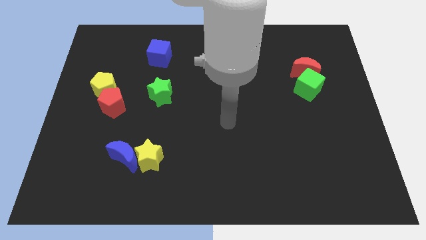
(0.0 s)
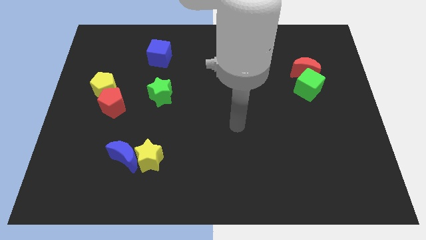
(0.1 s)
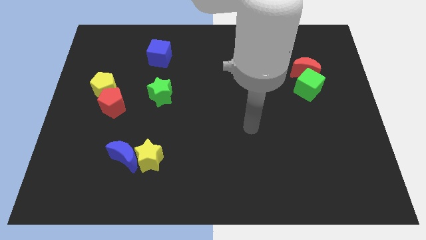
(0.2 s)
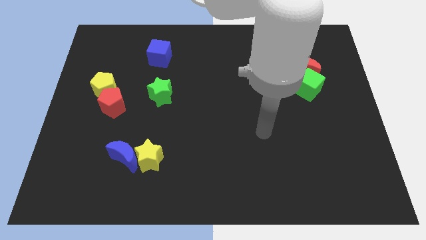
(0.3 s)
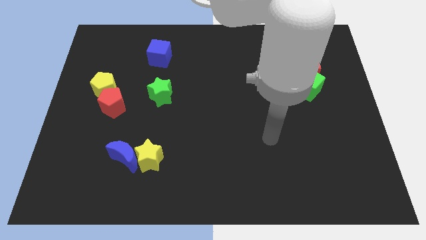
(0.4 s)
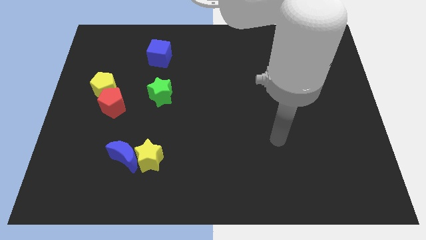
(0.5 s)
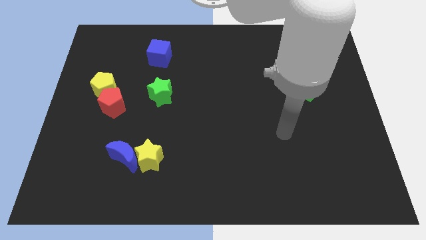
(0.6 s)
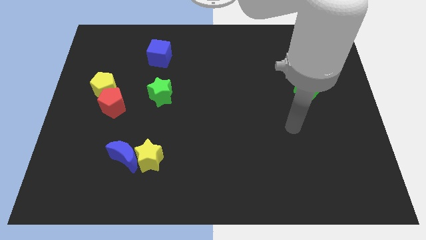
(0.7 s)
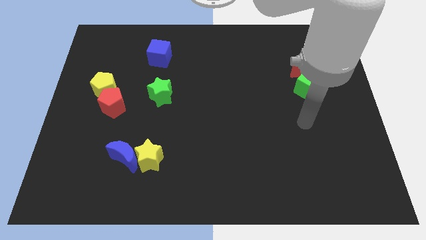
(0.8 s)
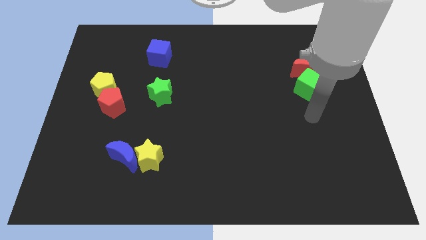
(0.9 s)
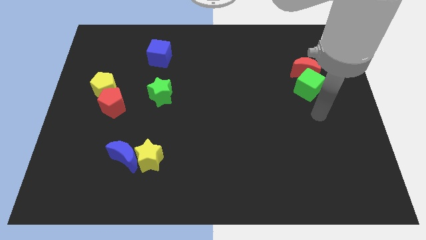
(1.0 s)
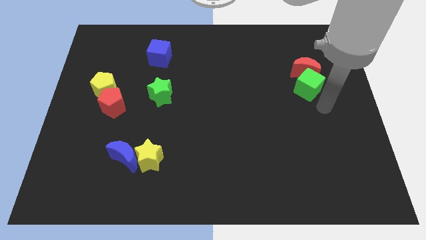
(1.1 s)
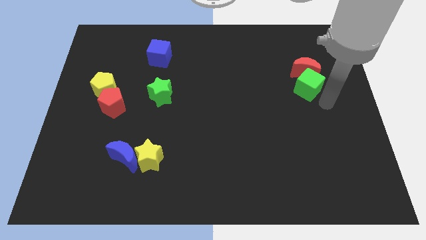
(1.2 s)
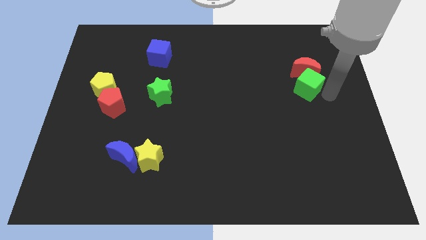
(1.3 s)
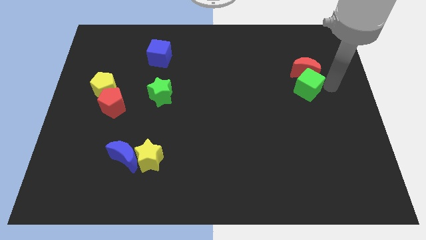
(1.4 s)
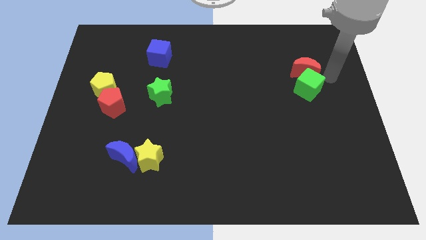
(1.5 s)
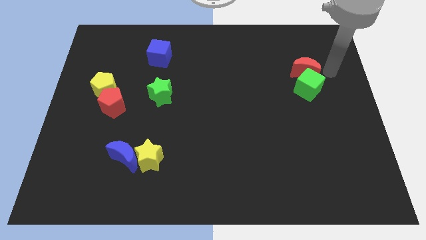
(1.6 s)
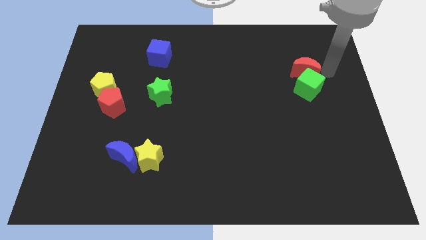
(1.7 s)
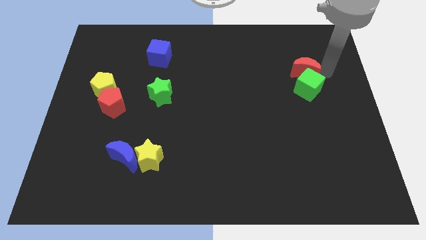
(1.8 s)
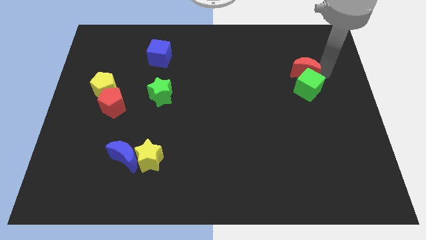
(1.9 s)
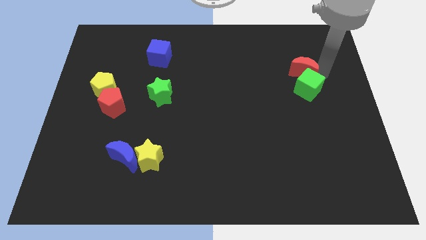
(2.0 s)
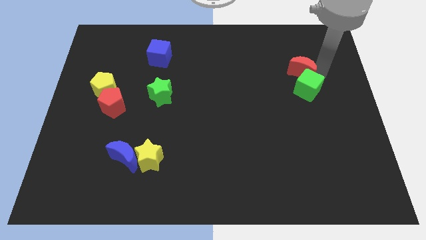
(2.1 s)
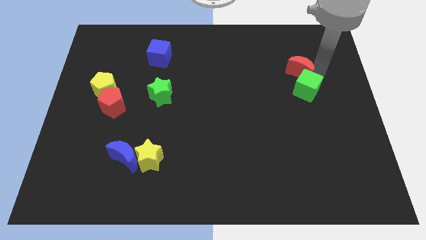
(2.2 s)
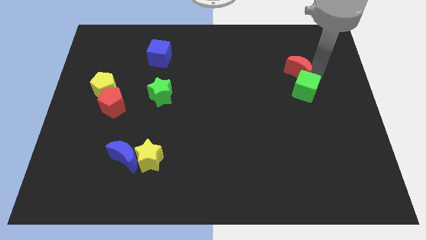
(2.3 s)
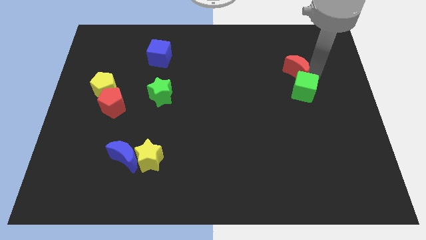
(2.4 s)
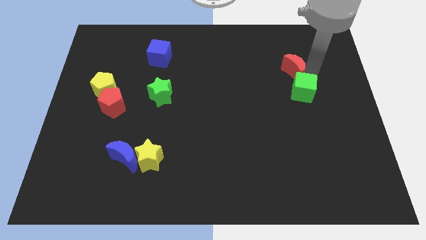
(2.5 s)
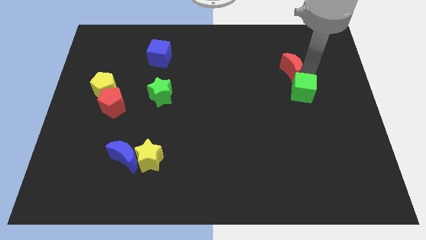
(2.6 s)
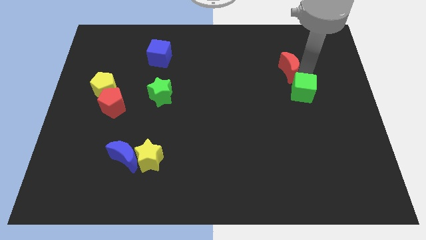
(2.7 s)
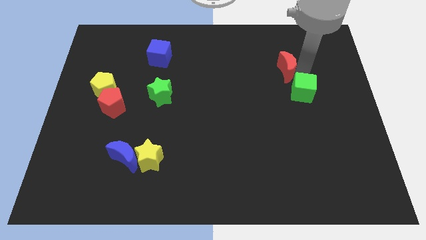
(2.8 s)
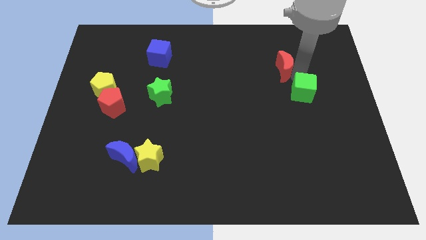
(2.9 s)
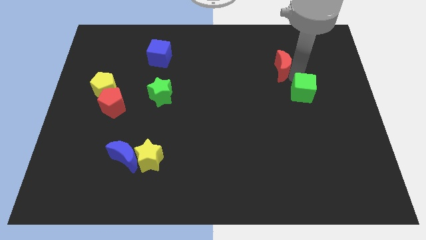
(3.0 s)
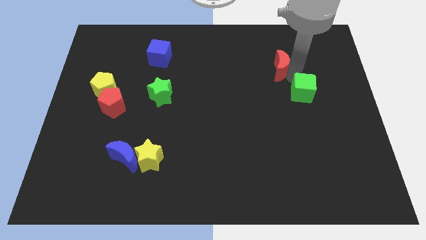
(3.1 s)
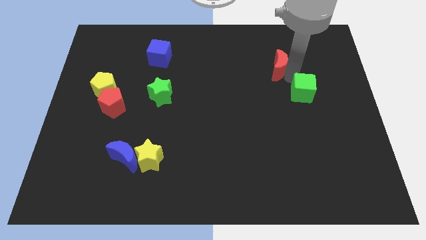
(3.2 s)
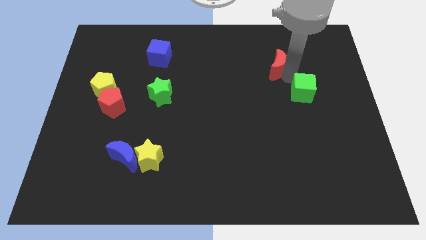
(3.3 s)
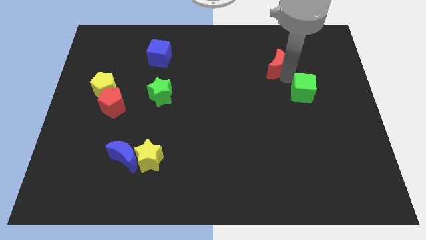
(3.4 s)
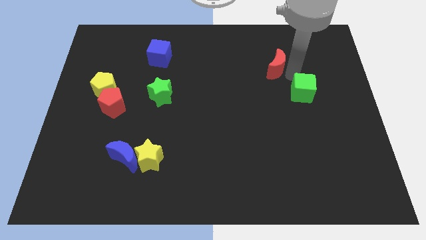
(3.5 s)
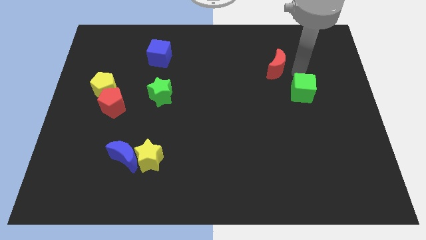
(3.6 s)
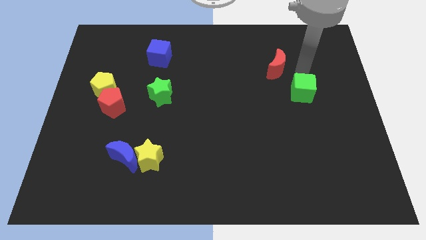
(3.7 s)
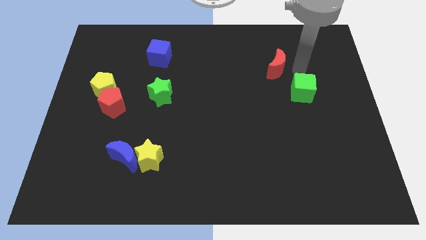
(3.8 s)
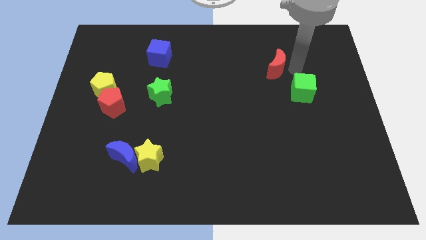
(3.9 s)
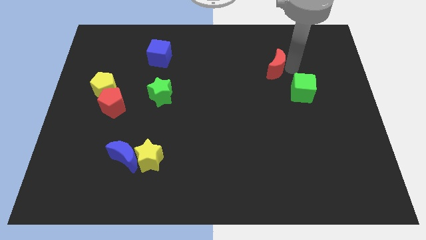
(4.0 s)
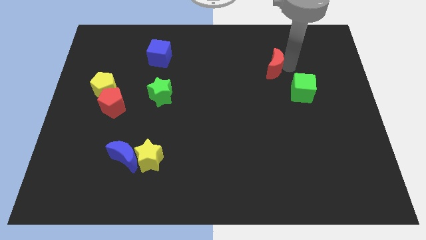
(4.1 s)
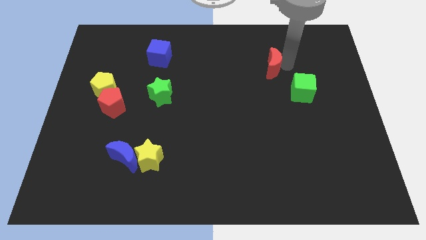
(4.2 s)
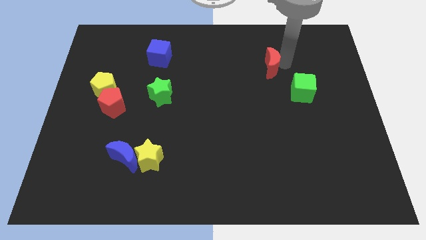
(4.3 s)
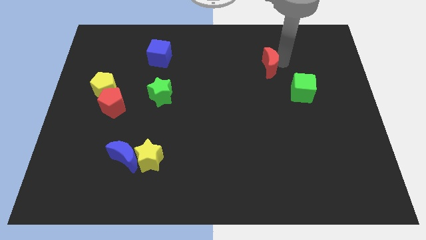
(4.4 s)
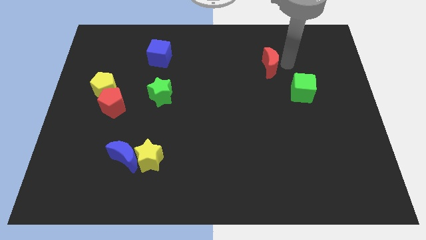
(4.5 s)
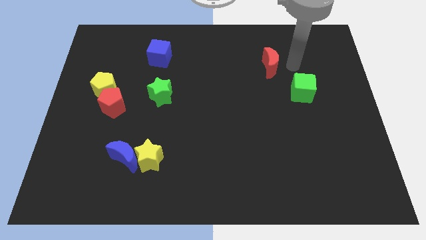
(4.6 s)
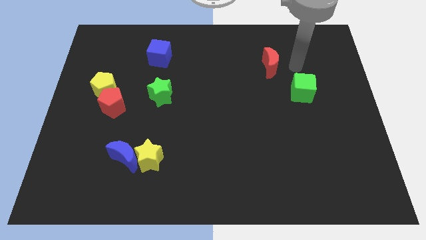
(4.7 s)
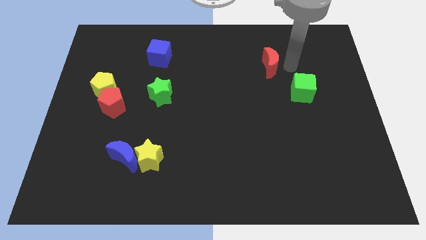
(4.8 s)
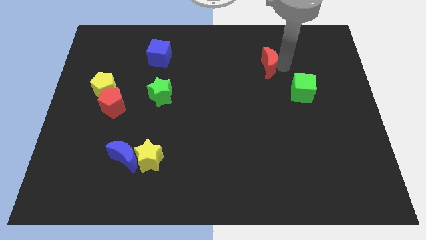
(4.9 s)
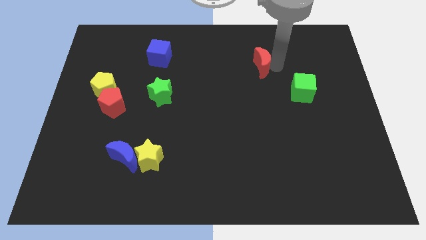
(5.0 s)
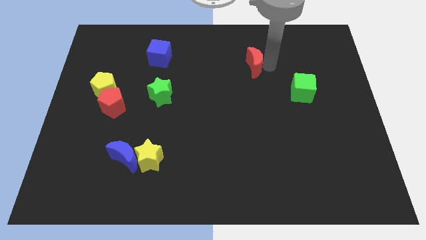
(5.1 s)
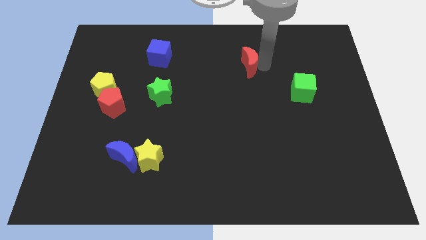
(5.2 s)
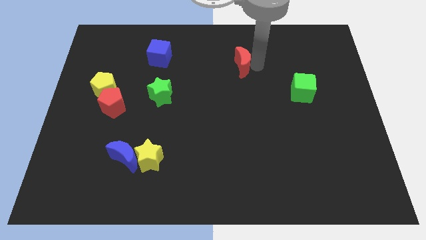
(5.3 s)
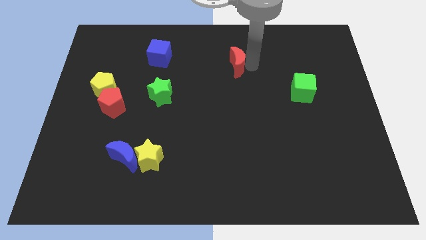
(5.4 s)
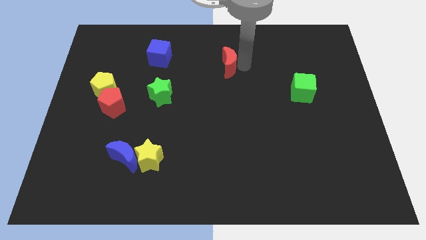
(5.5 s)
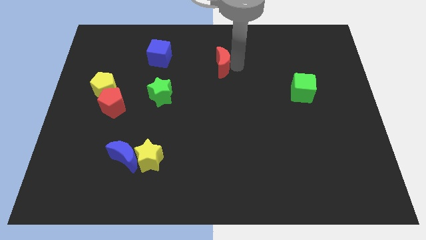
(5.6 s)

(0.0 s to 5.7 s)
push the red moon left

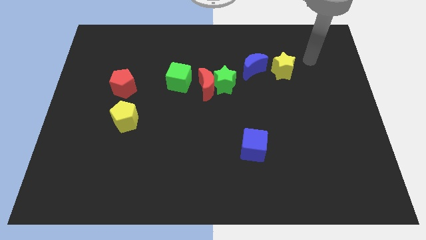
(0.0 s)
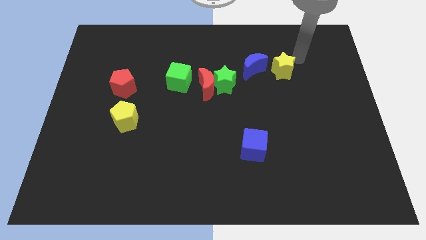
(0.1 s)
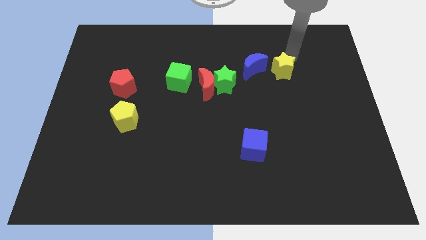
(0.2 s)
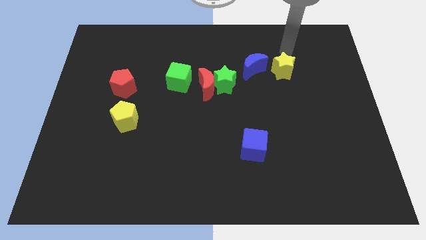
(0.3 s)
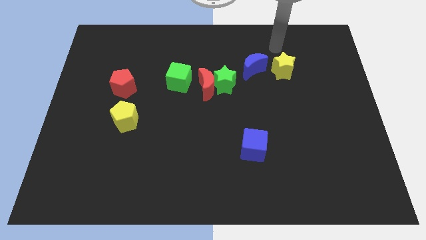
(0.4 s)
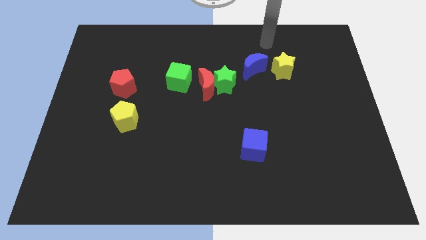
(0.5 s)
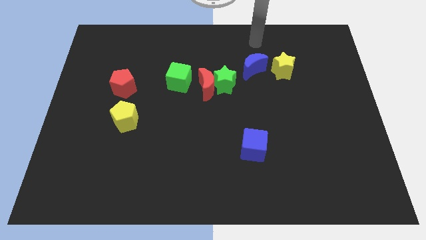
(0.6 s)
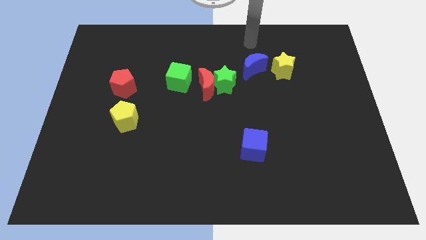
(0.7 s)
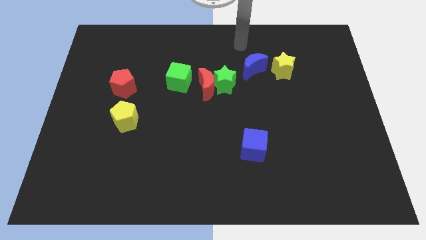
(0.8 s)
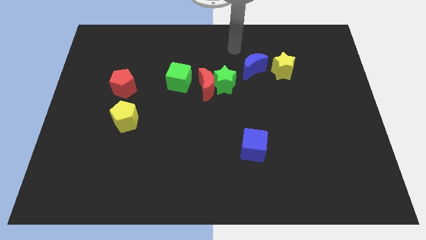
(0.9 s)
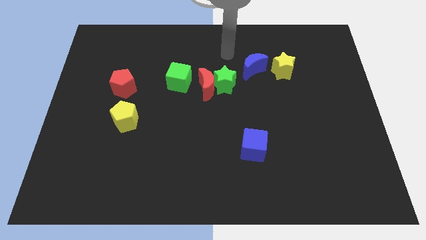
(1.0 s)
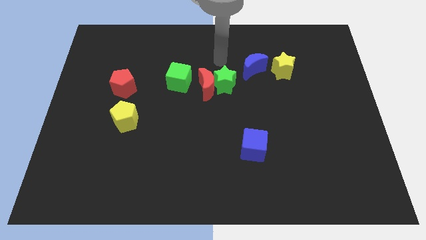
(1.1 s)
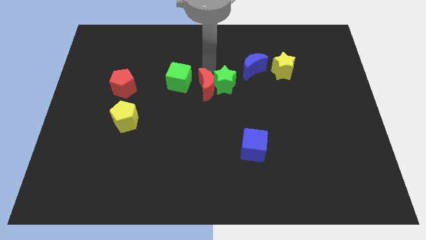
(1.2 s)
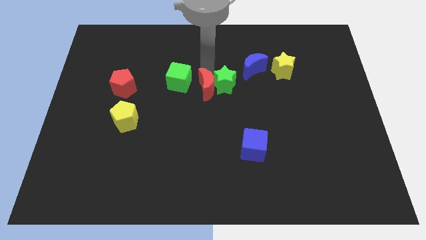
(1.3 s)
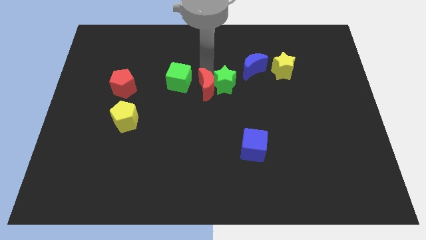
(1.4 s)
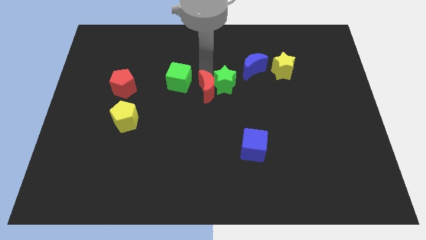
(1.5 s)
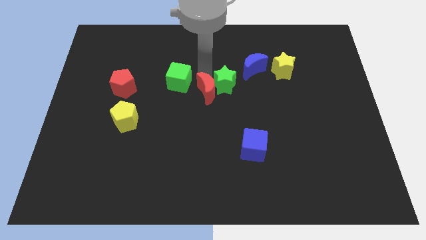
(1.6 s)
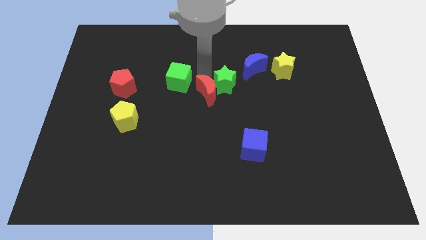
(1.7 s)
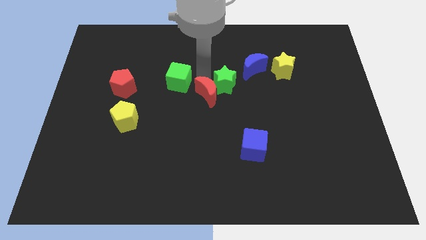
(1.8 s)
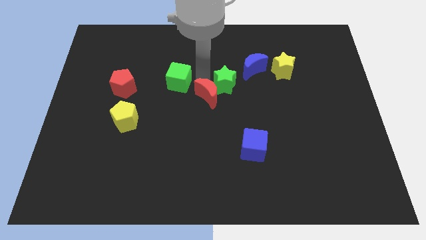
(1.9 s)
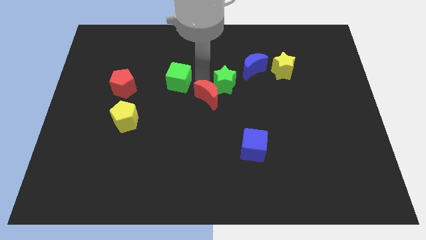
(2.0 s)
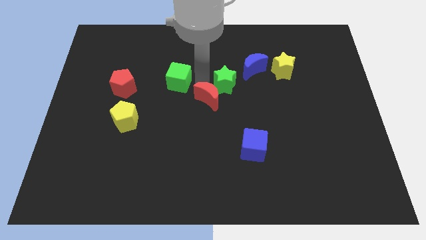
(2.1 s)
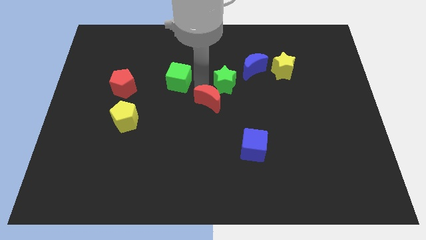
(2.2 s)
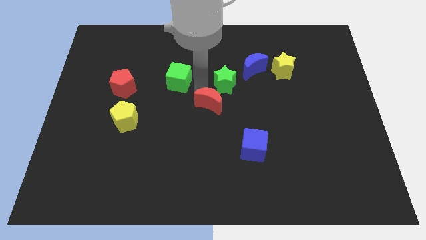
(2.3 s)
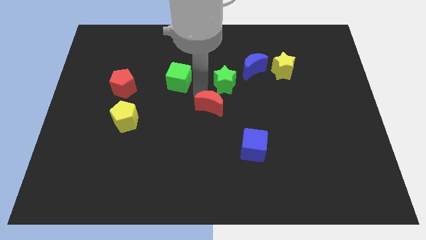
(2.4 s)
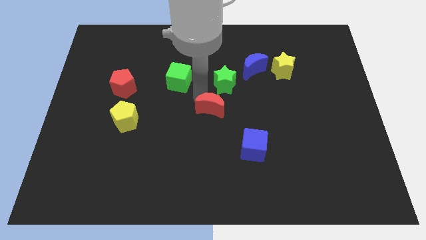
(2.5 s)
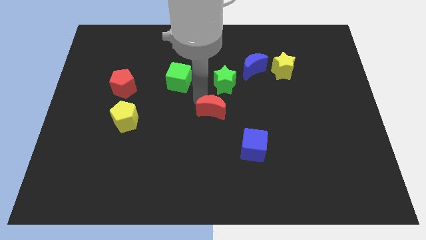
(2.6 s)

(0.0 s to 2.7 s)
move the red moon slightly down
